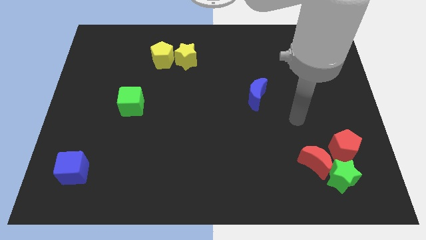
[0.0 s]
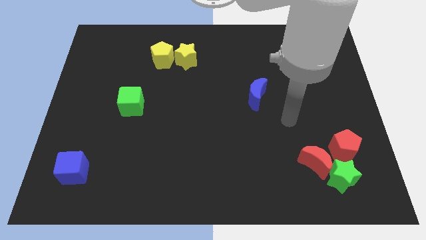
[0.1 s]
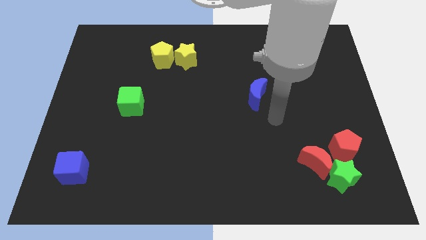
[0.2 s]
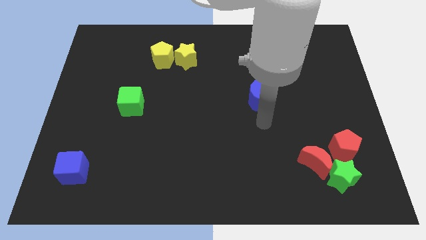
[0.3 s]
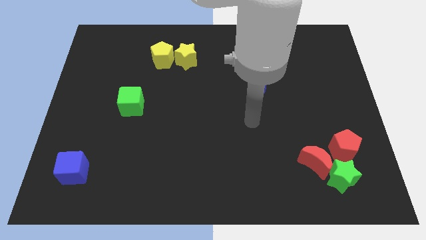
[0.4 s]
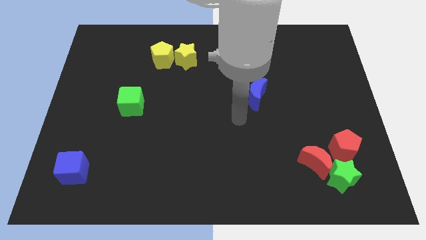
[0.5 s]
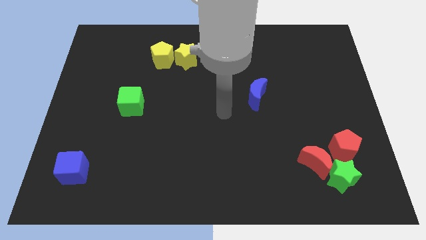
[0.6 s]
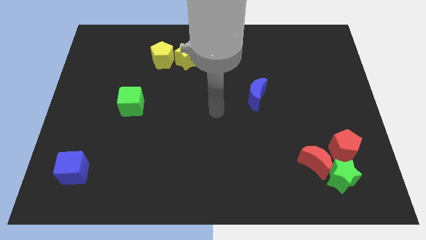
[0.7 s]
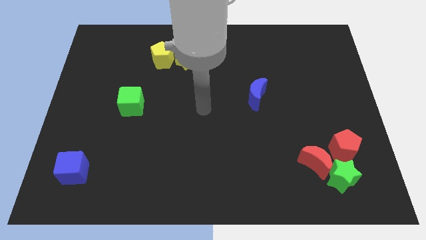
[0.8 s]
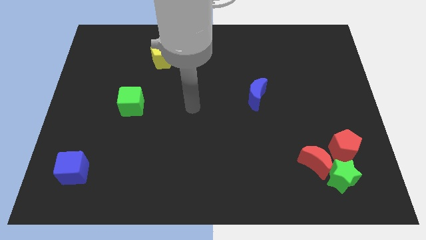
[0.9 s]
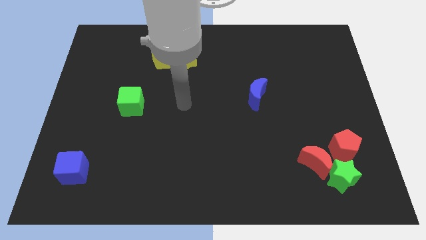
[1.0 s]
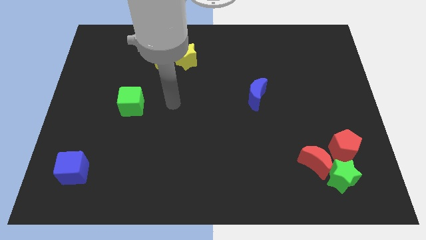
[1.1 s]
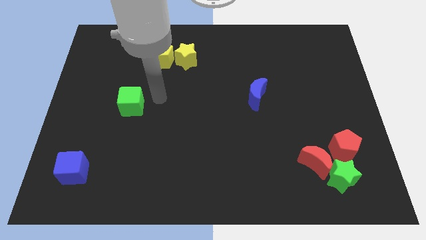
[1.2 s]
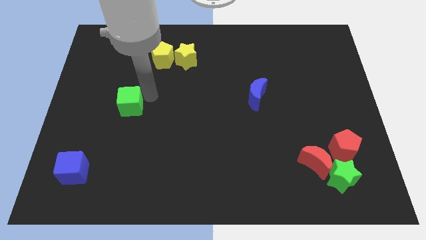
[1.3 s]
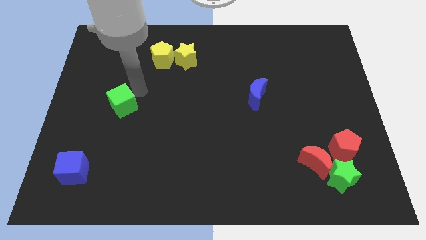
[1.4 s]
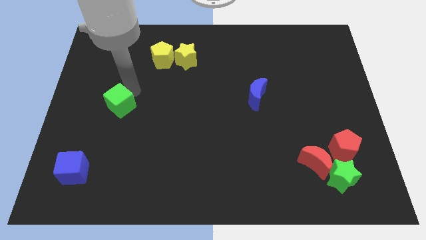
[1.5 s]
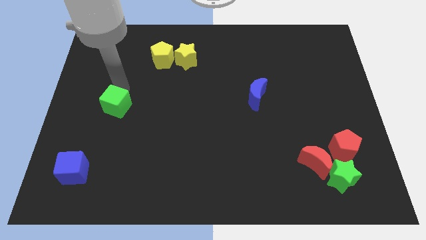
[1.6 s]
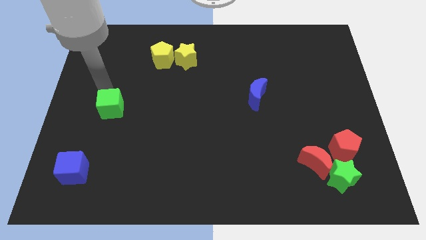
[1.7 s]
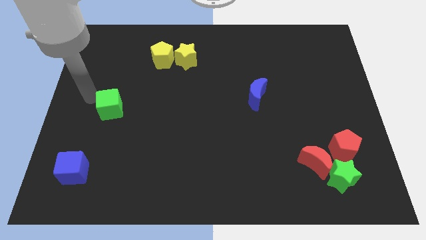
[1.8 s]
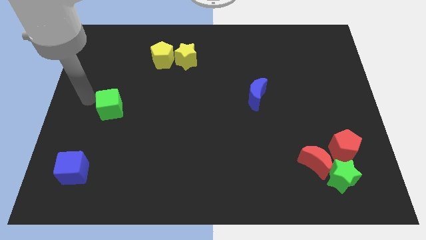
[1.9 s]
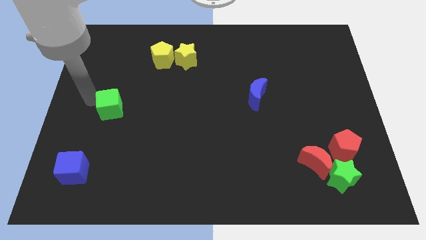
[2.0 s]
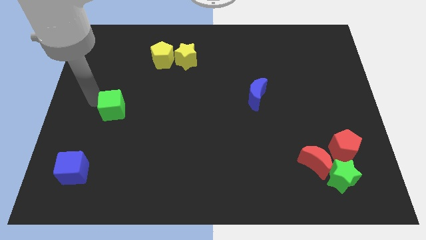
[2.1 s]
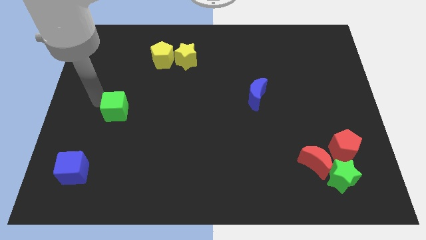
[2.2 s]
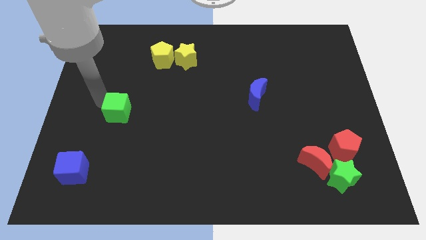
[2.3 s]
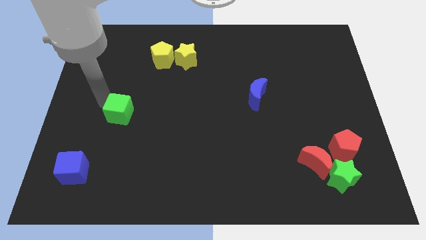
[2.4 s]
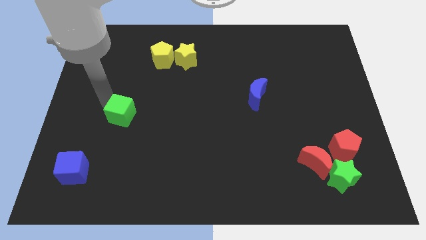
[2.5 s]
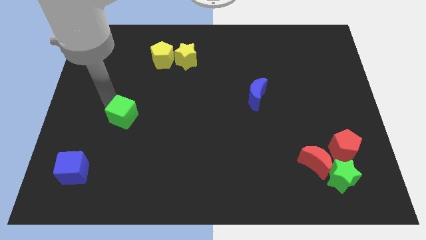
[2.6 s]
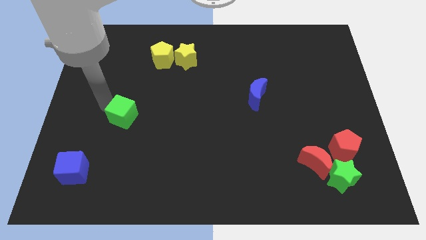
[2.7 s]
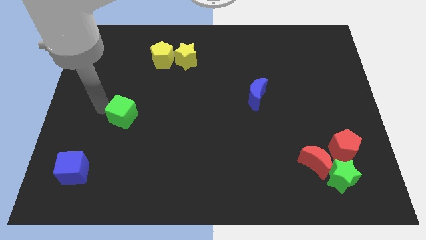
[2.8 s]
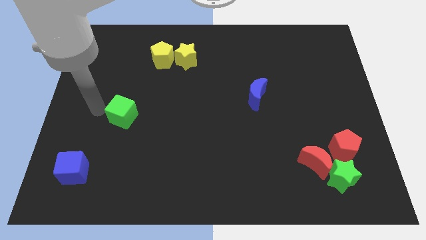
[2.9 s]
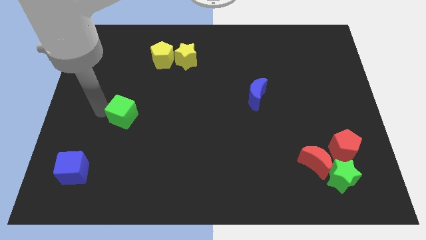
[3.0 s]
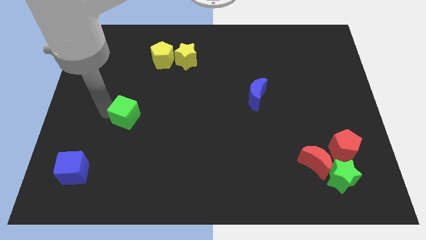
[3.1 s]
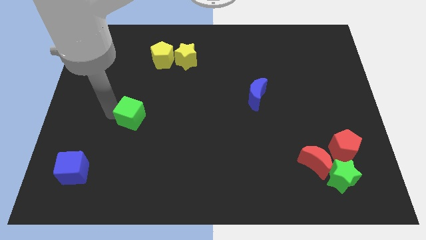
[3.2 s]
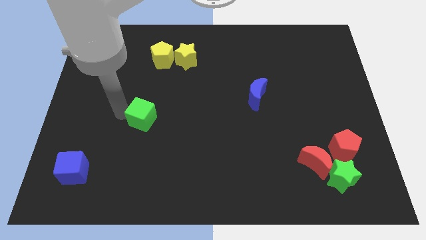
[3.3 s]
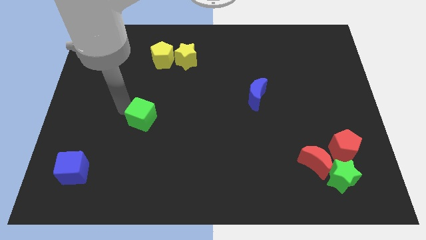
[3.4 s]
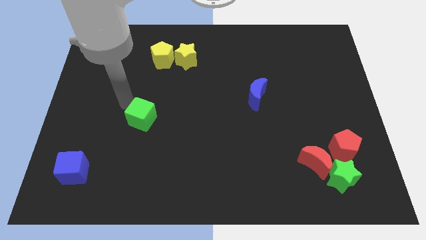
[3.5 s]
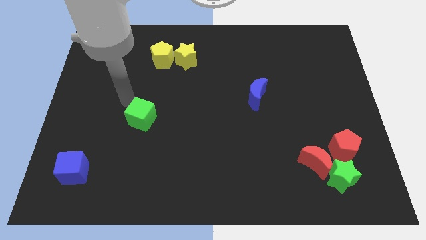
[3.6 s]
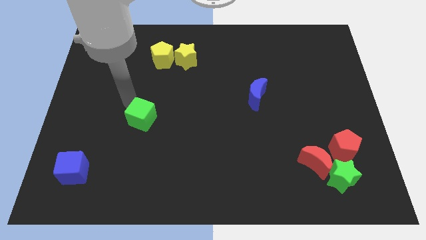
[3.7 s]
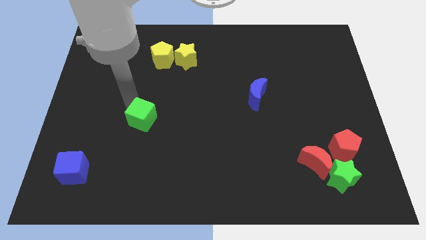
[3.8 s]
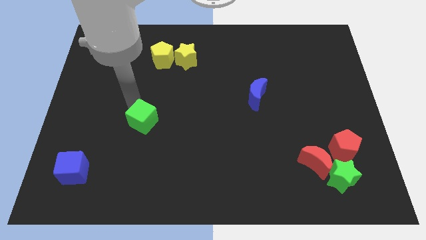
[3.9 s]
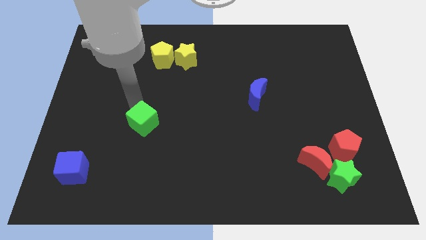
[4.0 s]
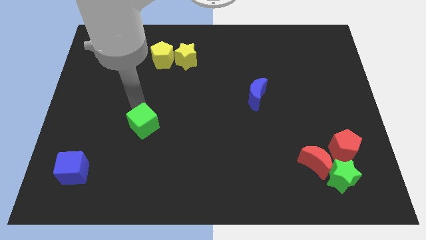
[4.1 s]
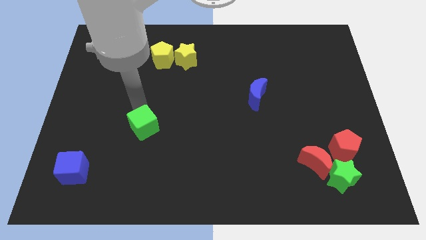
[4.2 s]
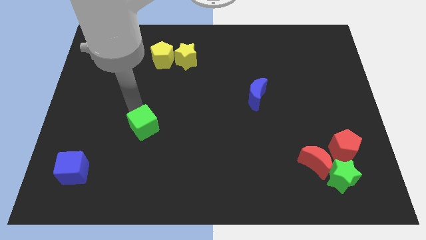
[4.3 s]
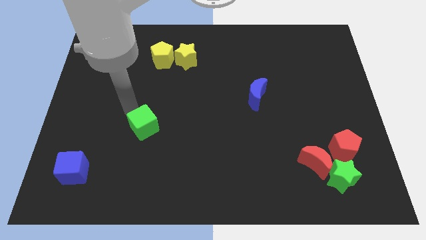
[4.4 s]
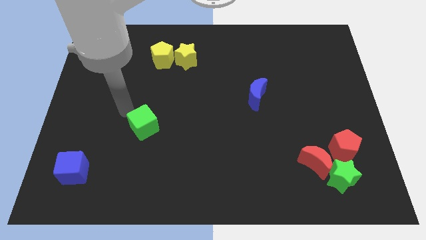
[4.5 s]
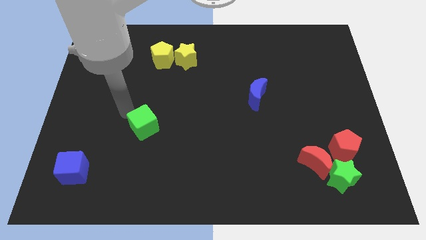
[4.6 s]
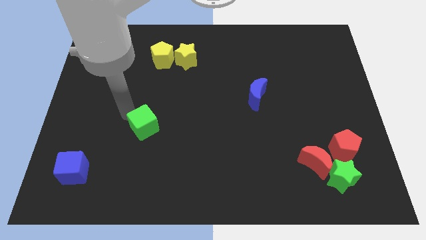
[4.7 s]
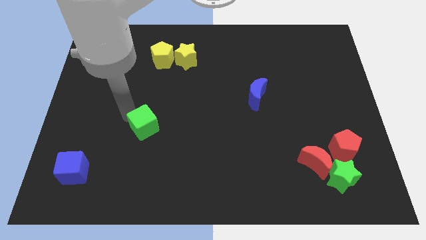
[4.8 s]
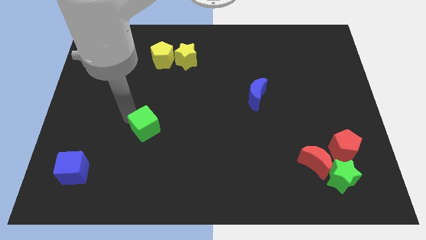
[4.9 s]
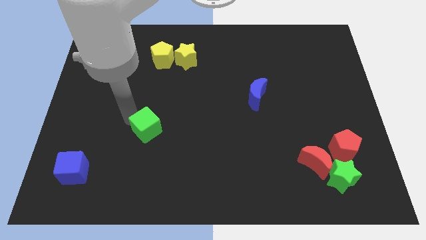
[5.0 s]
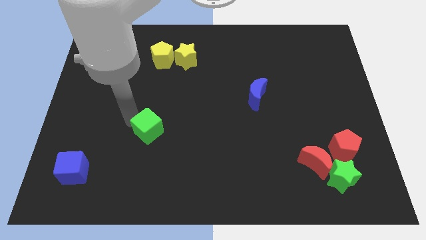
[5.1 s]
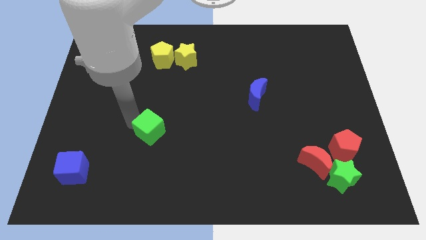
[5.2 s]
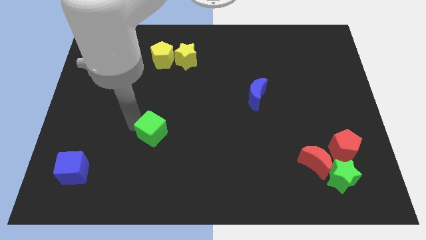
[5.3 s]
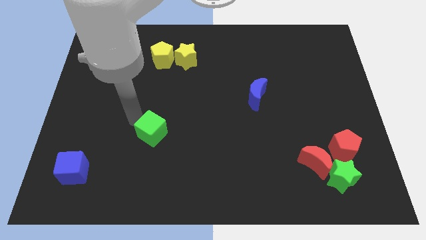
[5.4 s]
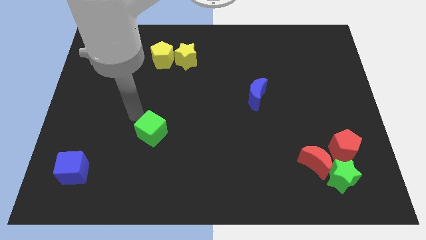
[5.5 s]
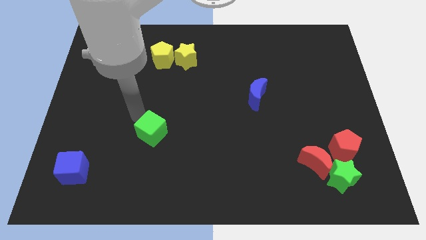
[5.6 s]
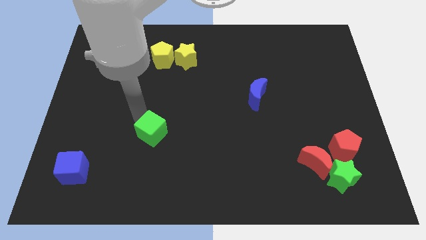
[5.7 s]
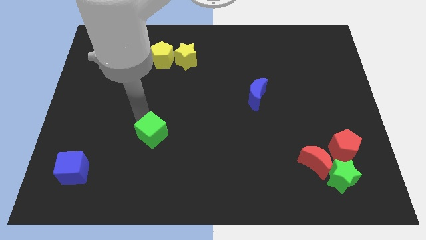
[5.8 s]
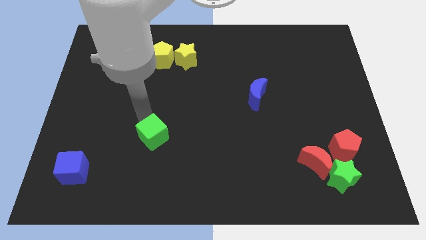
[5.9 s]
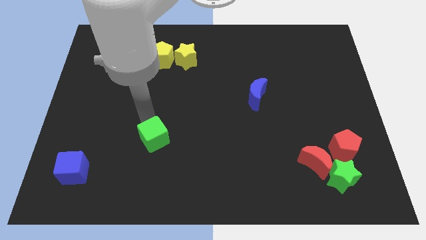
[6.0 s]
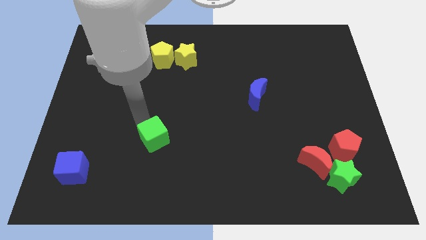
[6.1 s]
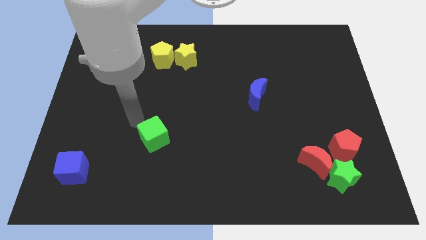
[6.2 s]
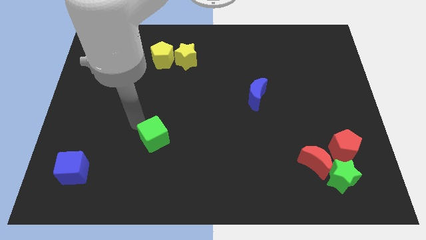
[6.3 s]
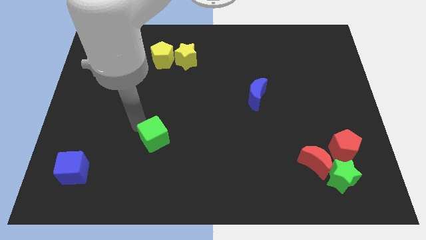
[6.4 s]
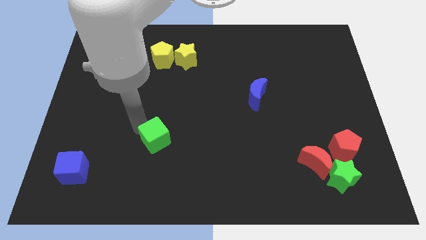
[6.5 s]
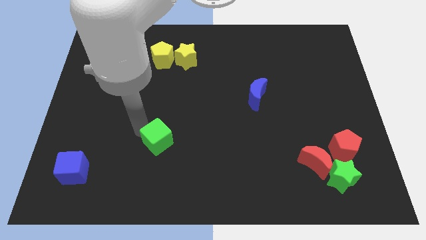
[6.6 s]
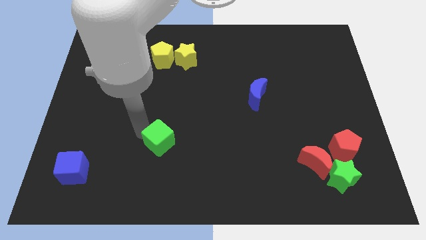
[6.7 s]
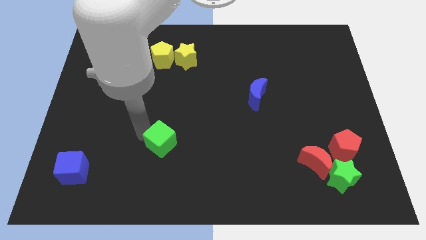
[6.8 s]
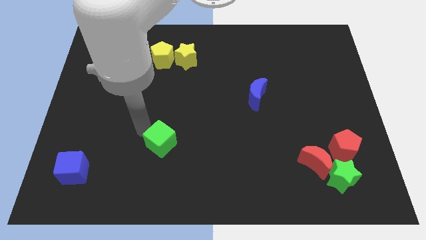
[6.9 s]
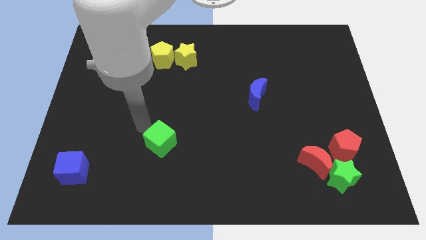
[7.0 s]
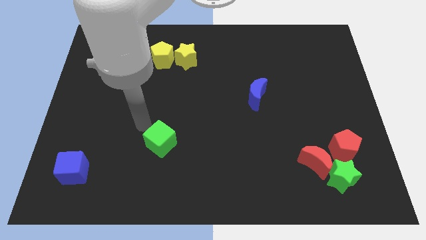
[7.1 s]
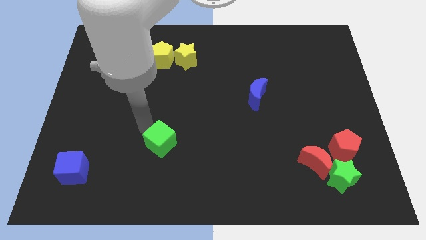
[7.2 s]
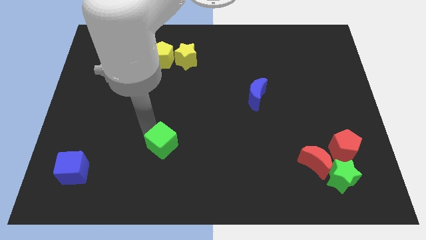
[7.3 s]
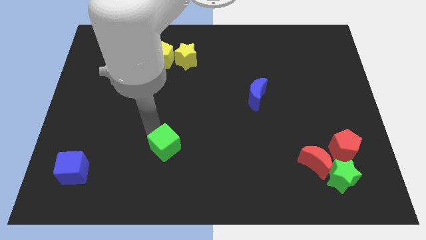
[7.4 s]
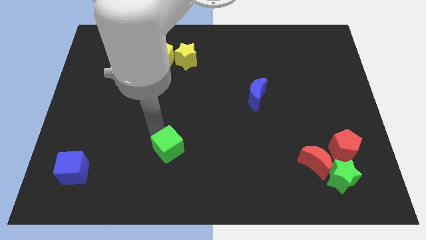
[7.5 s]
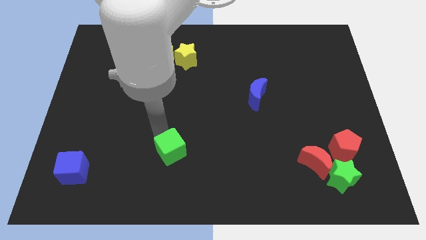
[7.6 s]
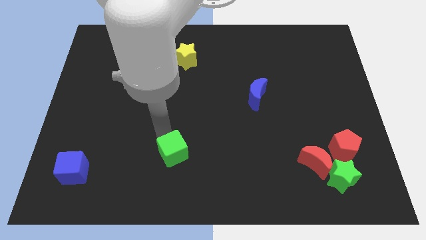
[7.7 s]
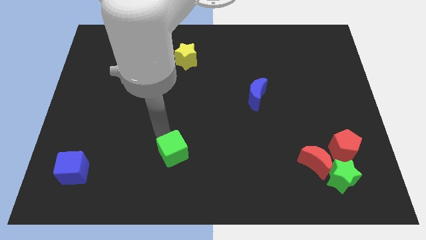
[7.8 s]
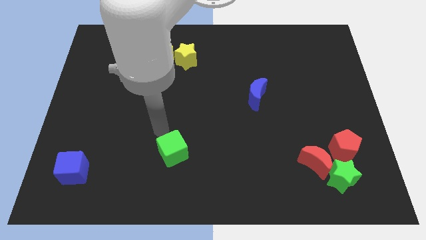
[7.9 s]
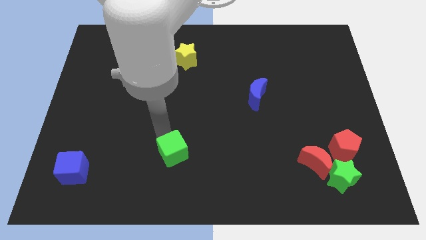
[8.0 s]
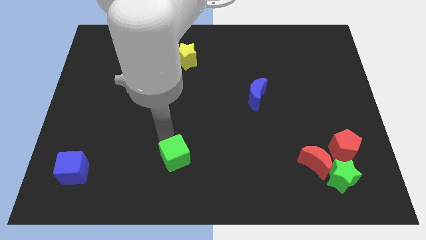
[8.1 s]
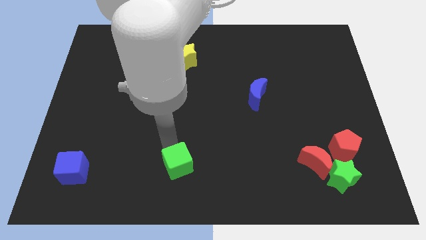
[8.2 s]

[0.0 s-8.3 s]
move the green cube to the bottom side
